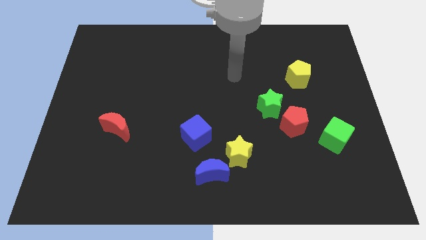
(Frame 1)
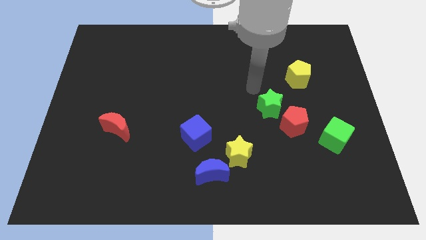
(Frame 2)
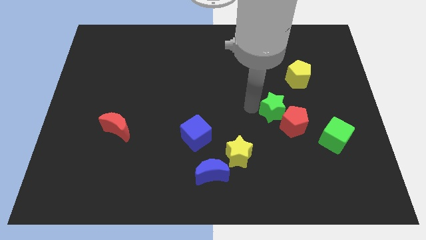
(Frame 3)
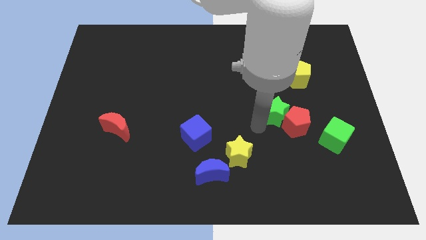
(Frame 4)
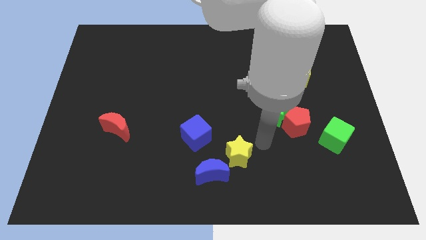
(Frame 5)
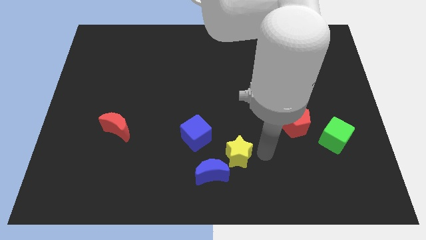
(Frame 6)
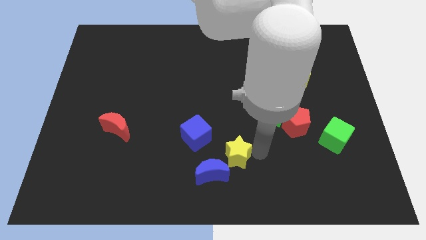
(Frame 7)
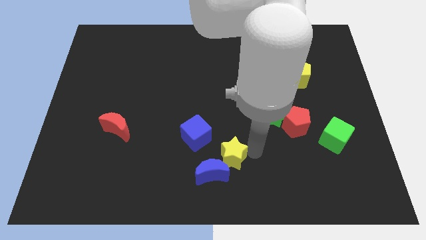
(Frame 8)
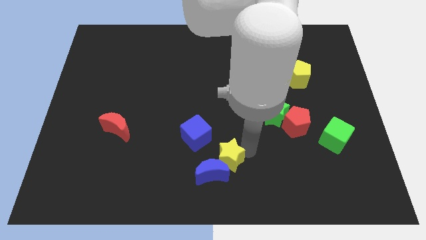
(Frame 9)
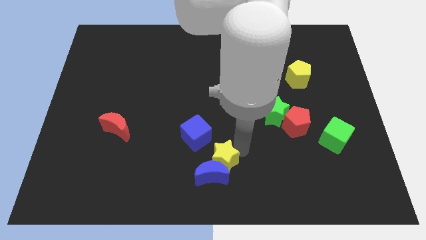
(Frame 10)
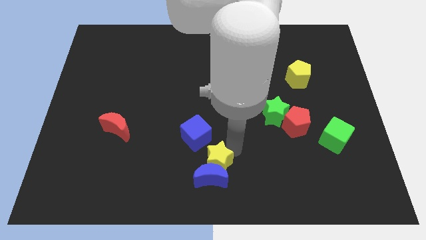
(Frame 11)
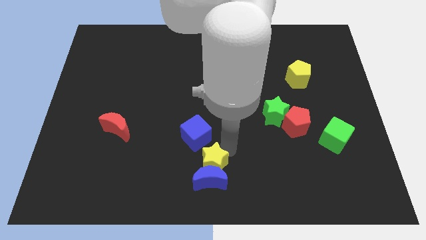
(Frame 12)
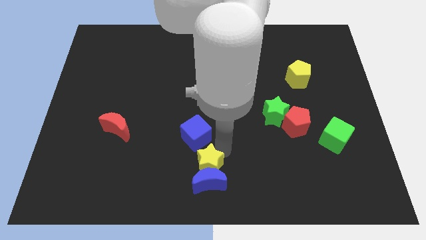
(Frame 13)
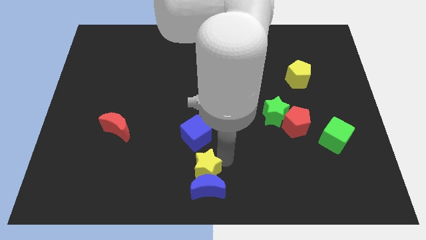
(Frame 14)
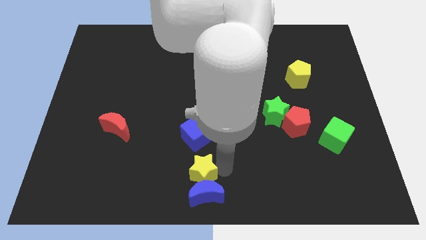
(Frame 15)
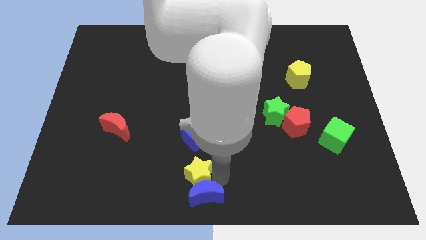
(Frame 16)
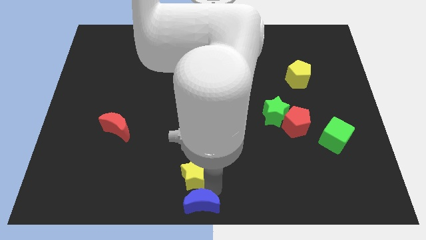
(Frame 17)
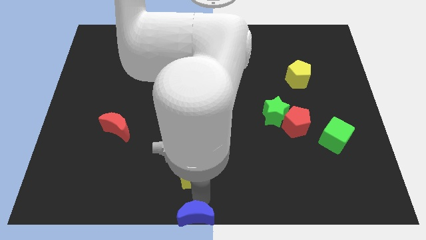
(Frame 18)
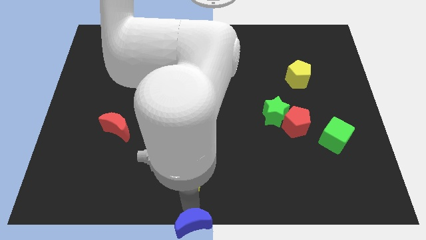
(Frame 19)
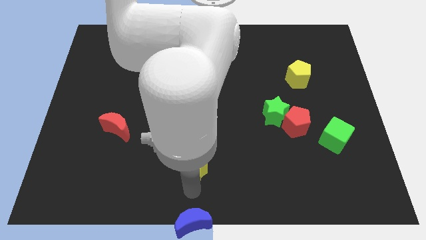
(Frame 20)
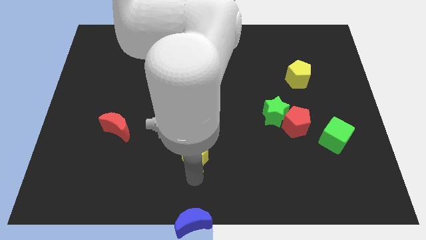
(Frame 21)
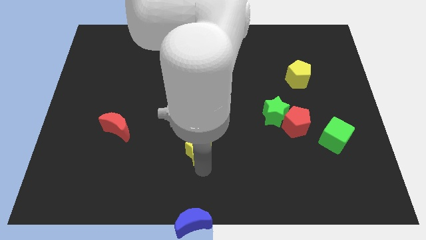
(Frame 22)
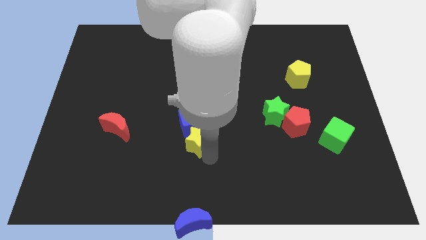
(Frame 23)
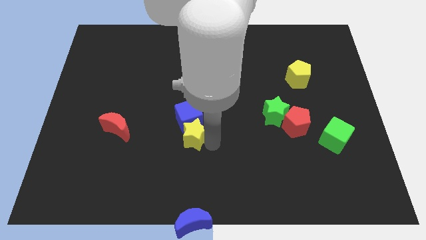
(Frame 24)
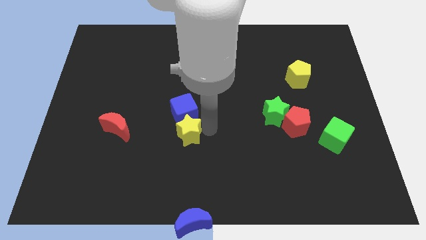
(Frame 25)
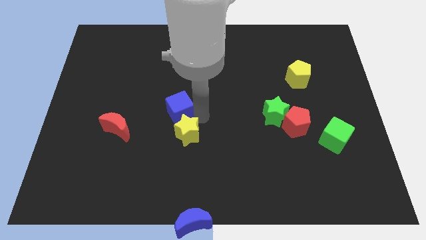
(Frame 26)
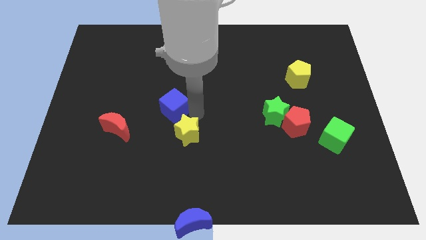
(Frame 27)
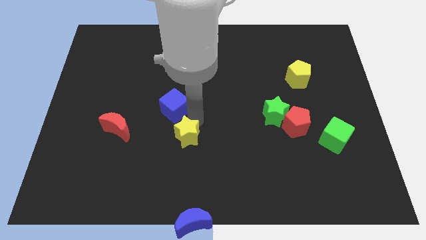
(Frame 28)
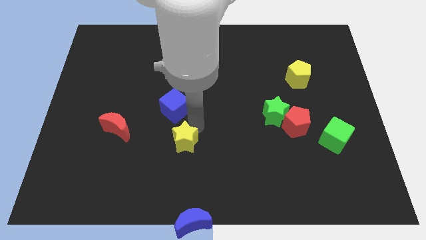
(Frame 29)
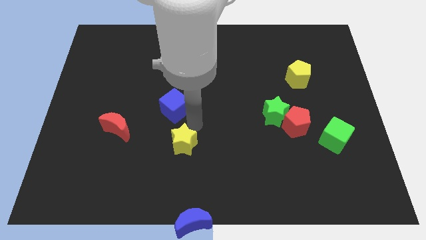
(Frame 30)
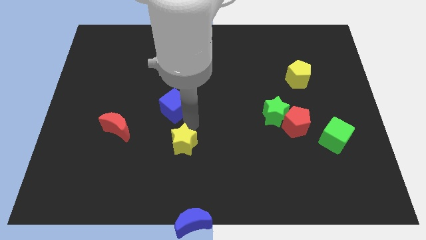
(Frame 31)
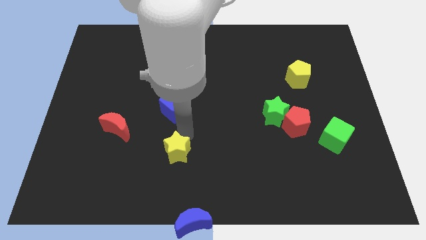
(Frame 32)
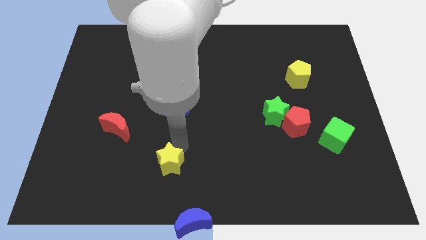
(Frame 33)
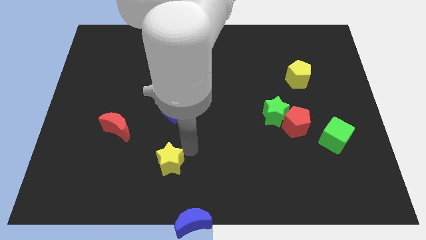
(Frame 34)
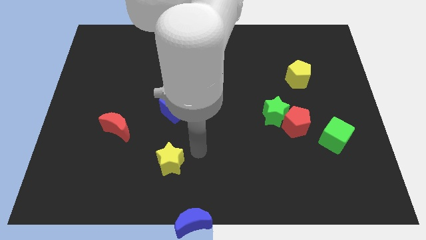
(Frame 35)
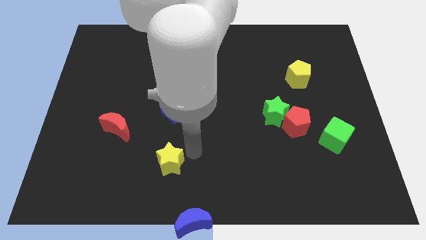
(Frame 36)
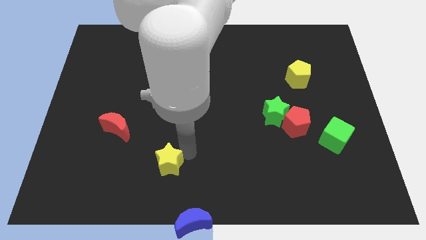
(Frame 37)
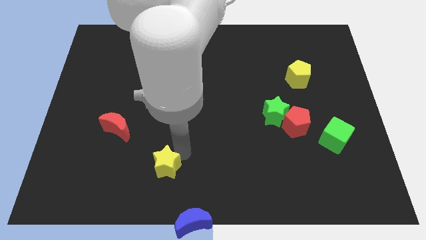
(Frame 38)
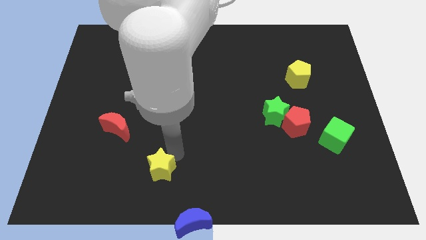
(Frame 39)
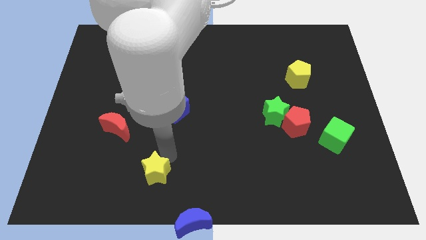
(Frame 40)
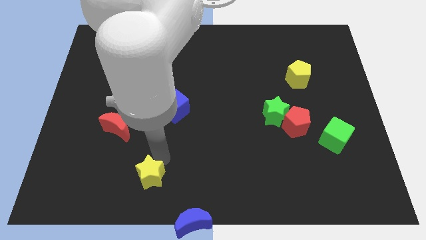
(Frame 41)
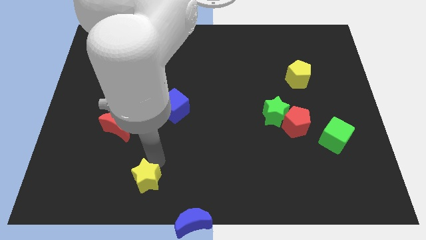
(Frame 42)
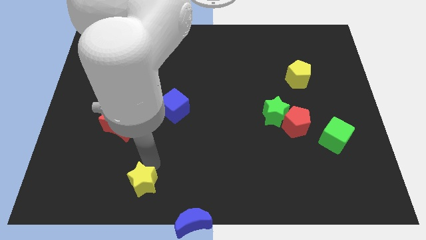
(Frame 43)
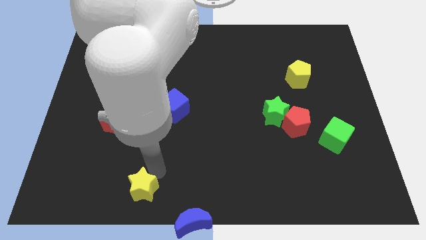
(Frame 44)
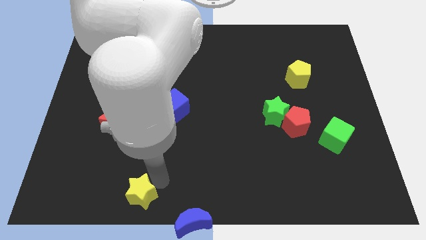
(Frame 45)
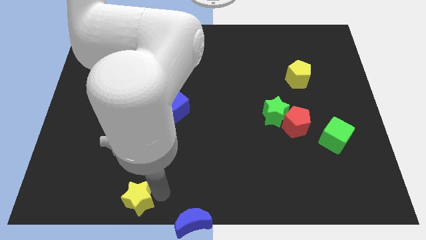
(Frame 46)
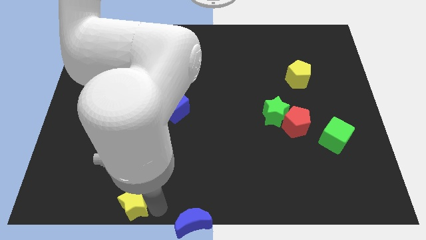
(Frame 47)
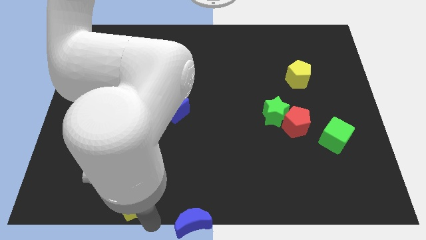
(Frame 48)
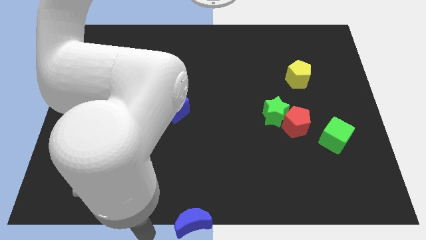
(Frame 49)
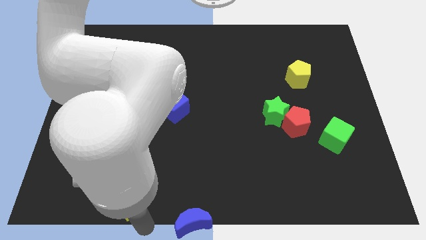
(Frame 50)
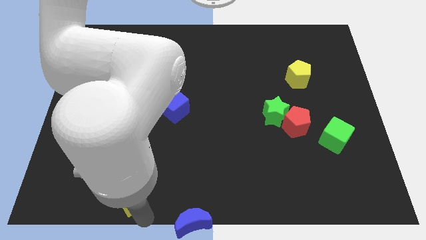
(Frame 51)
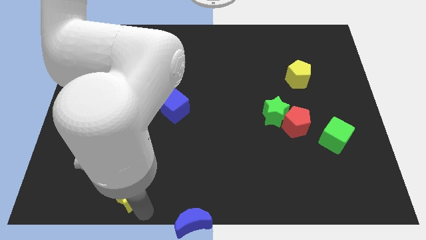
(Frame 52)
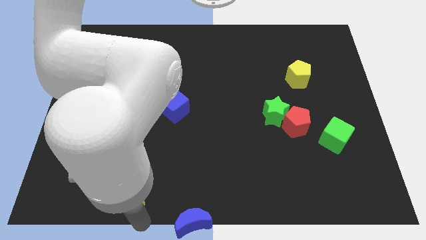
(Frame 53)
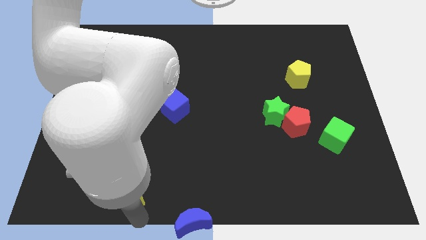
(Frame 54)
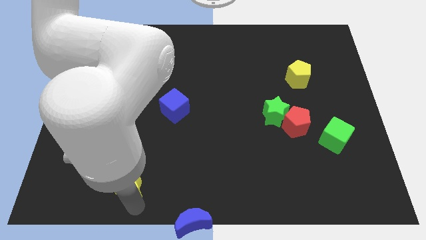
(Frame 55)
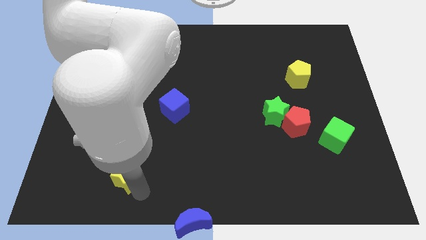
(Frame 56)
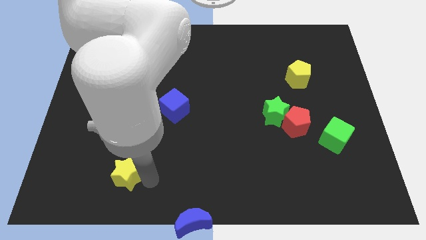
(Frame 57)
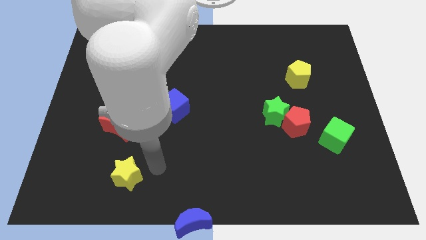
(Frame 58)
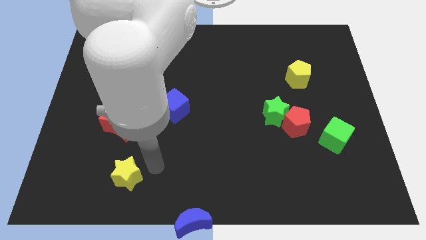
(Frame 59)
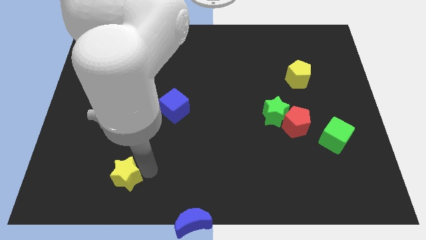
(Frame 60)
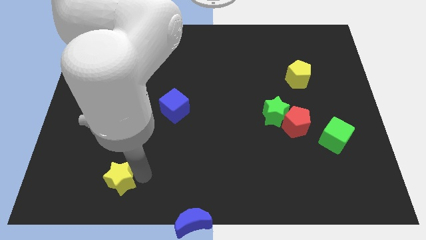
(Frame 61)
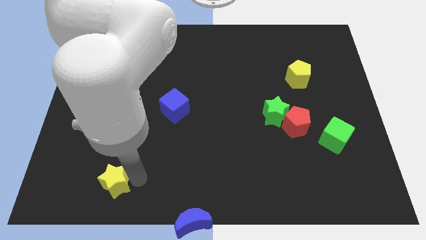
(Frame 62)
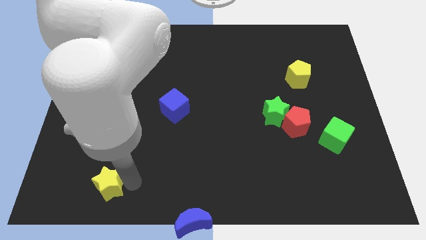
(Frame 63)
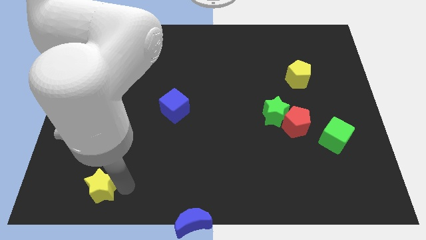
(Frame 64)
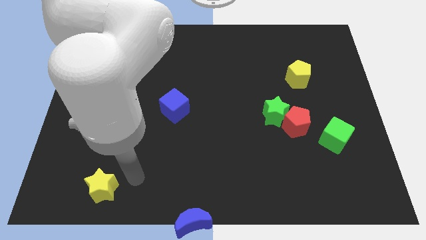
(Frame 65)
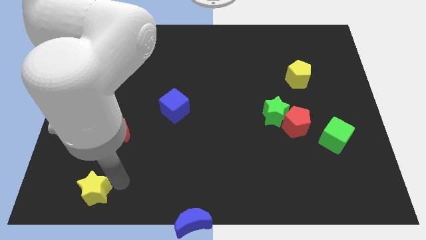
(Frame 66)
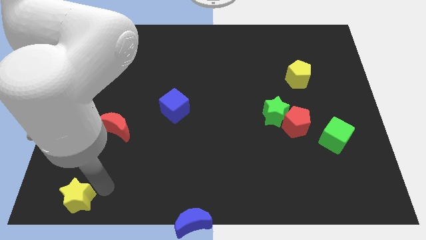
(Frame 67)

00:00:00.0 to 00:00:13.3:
push the yellow star to the bottom left corner
